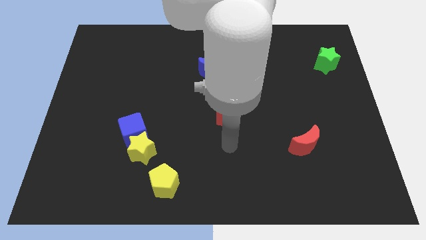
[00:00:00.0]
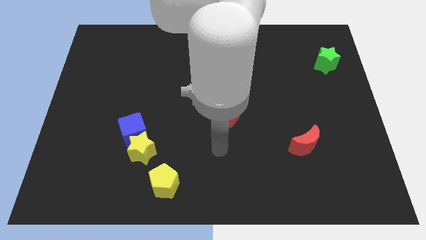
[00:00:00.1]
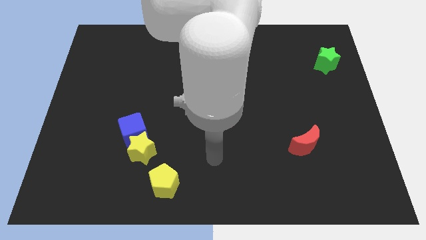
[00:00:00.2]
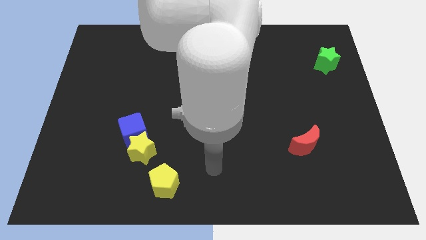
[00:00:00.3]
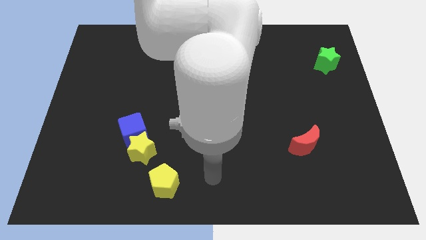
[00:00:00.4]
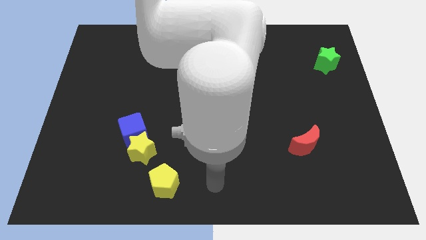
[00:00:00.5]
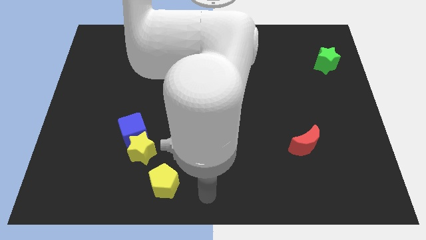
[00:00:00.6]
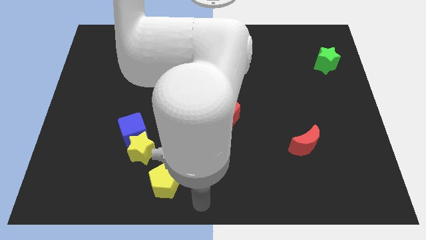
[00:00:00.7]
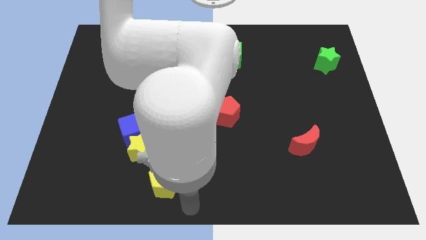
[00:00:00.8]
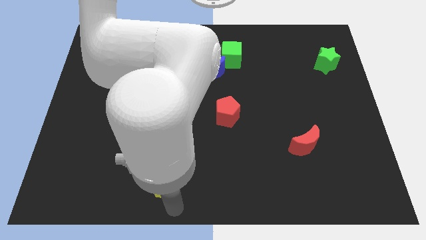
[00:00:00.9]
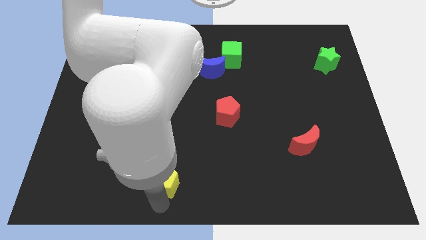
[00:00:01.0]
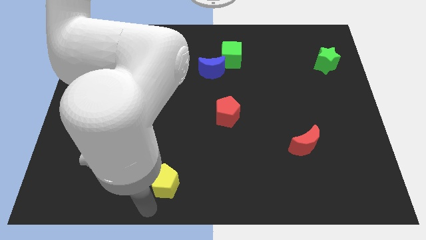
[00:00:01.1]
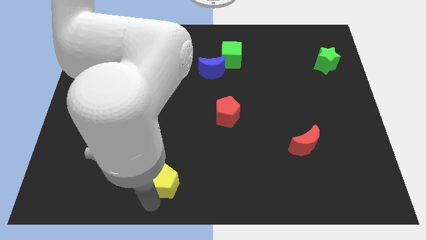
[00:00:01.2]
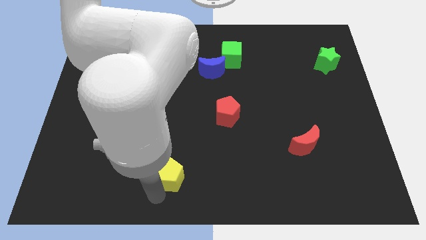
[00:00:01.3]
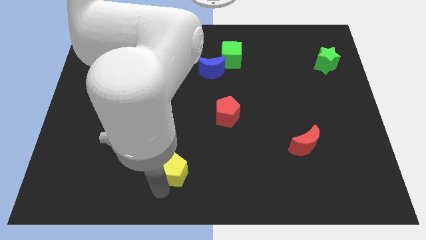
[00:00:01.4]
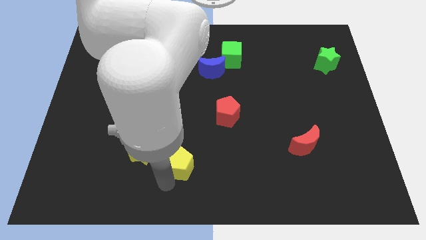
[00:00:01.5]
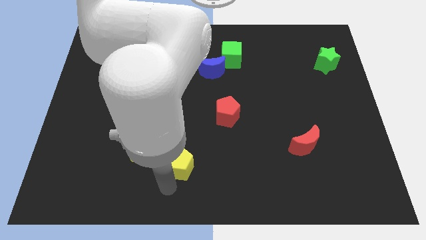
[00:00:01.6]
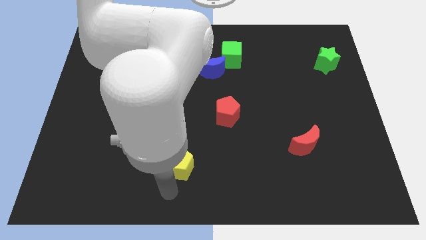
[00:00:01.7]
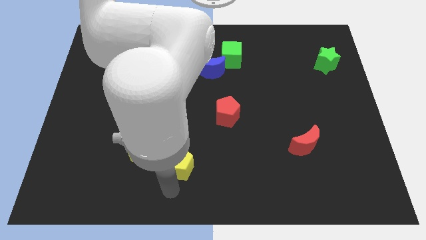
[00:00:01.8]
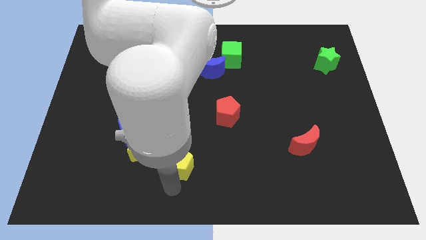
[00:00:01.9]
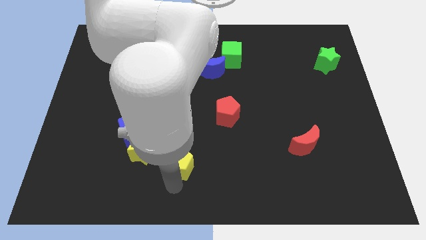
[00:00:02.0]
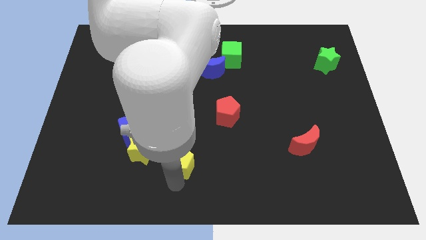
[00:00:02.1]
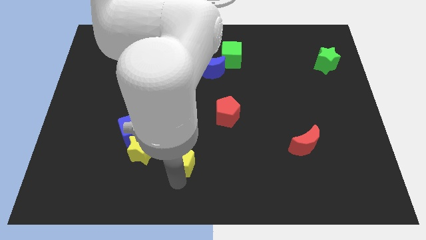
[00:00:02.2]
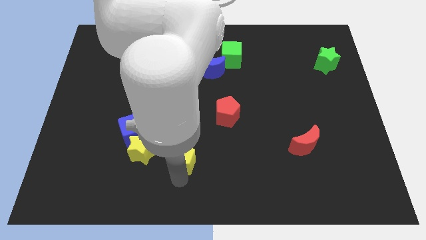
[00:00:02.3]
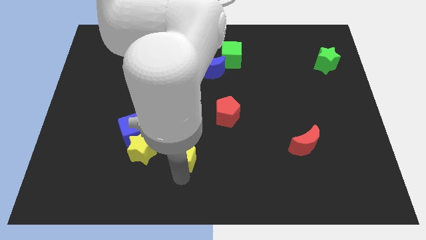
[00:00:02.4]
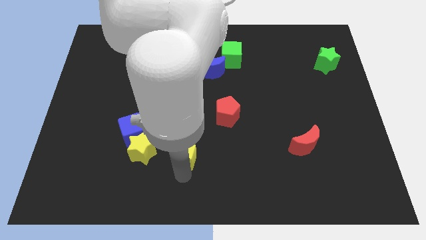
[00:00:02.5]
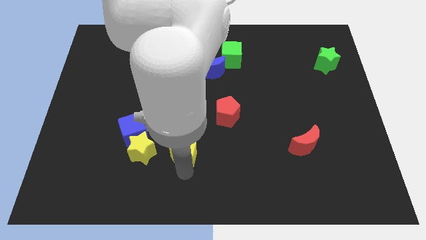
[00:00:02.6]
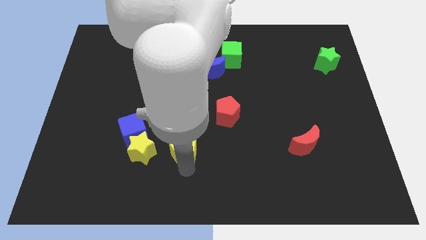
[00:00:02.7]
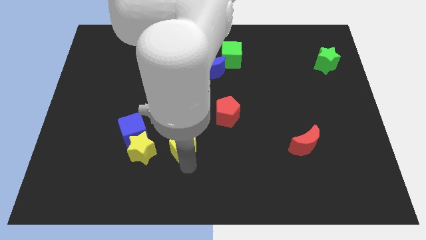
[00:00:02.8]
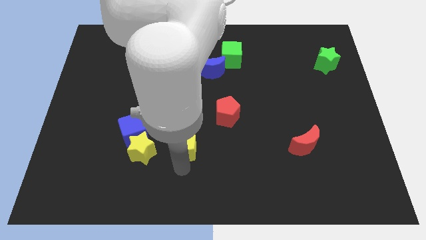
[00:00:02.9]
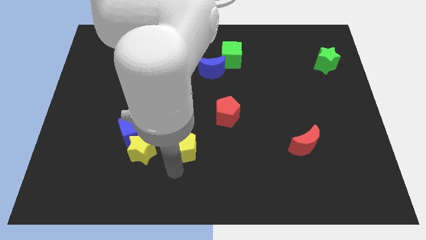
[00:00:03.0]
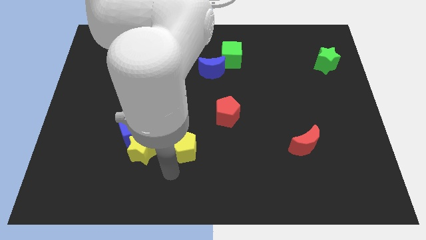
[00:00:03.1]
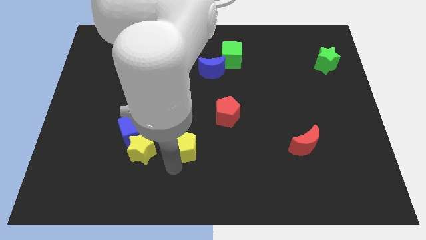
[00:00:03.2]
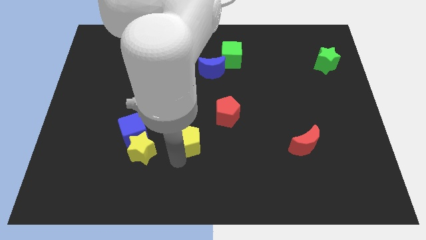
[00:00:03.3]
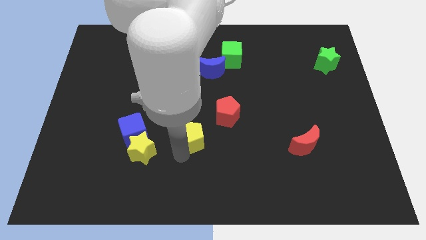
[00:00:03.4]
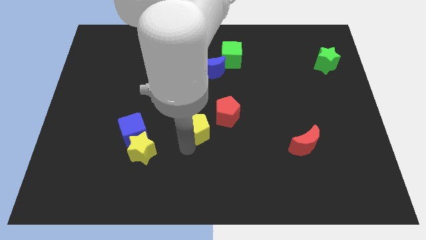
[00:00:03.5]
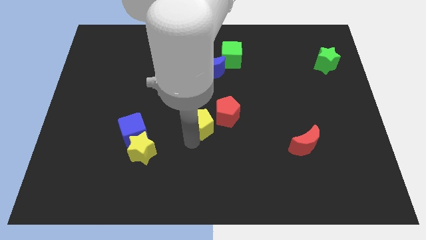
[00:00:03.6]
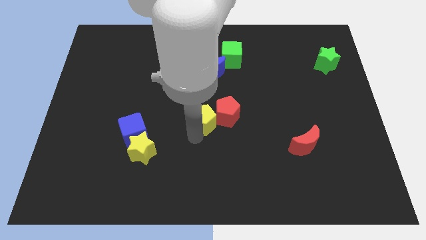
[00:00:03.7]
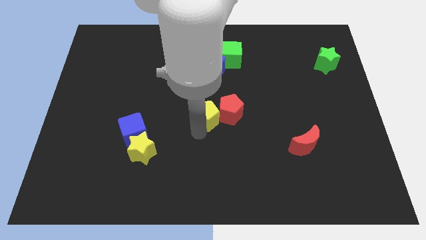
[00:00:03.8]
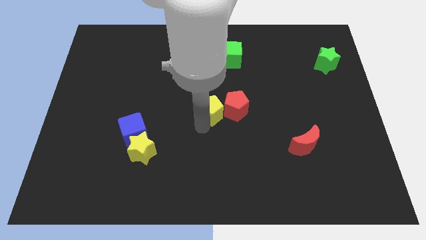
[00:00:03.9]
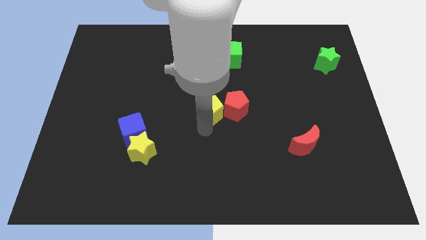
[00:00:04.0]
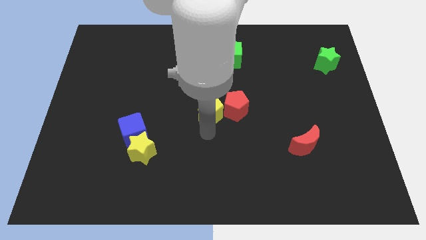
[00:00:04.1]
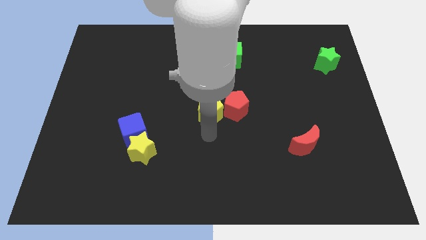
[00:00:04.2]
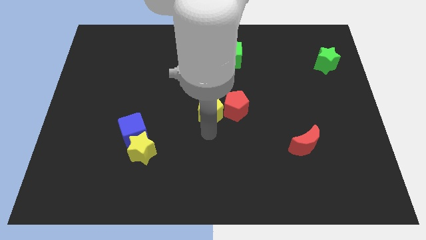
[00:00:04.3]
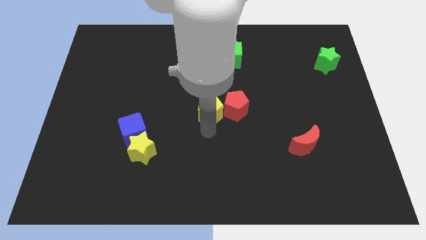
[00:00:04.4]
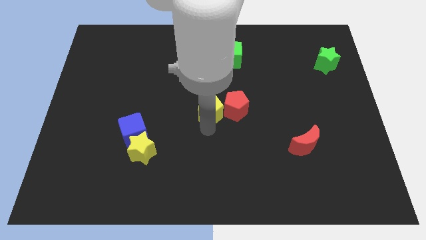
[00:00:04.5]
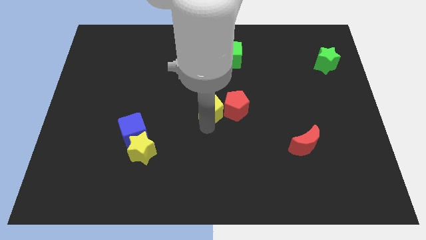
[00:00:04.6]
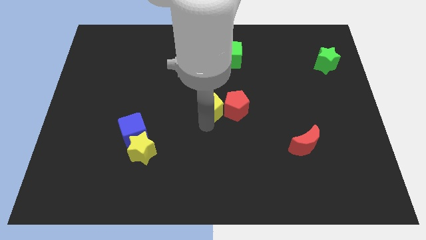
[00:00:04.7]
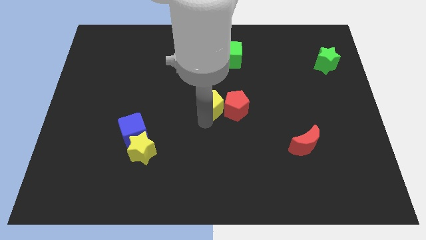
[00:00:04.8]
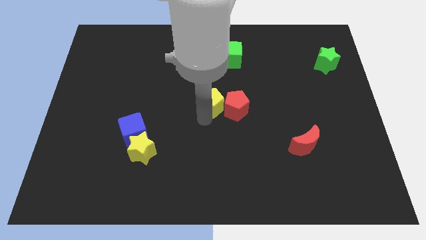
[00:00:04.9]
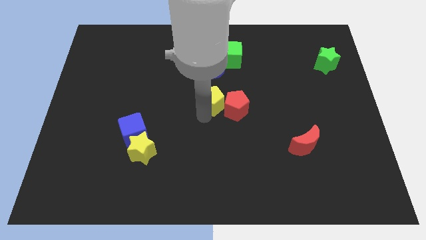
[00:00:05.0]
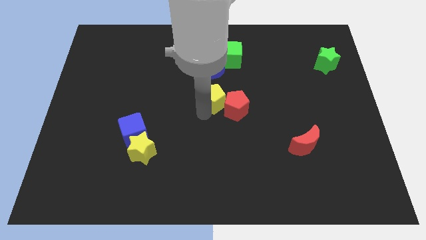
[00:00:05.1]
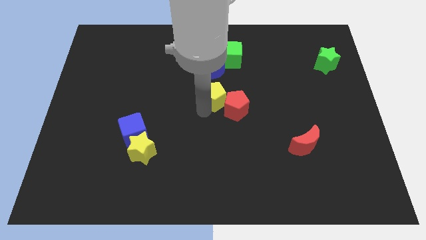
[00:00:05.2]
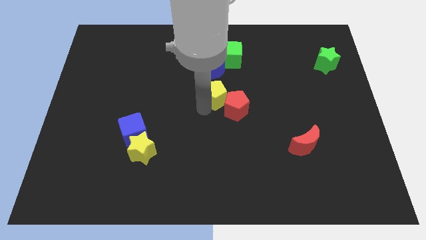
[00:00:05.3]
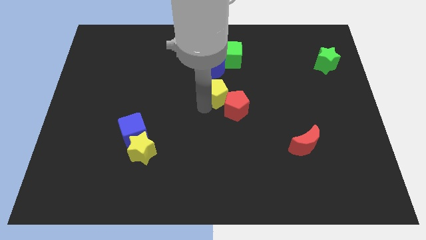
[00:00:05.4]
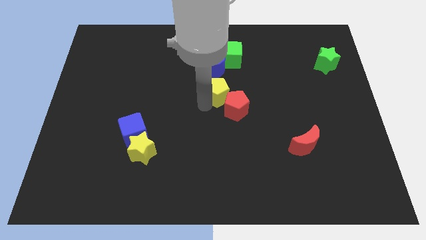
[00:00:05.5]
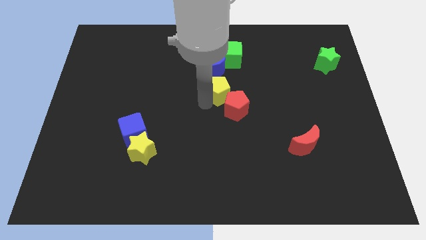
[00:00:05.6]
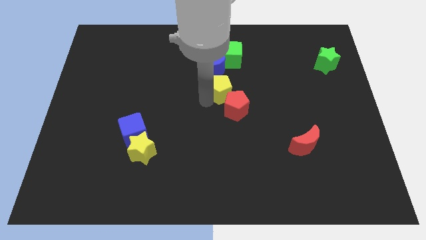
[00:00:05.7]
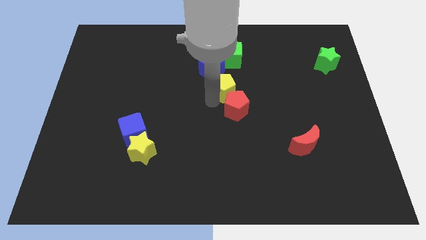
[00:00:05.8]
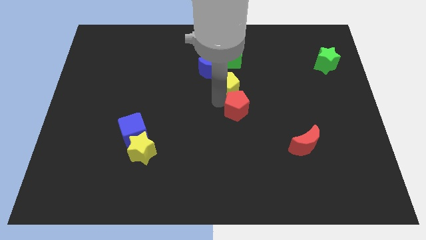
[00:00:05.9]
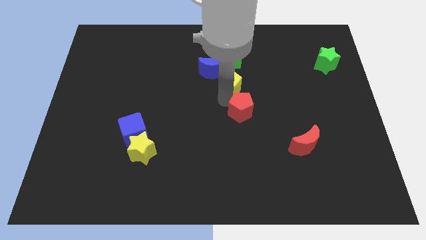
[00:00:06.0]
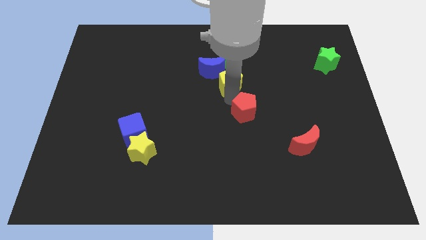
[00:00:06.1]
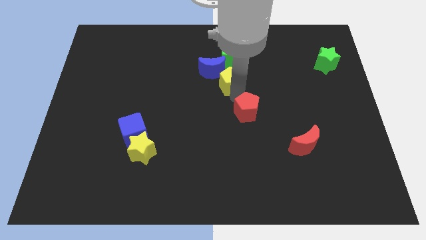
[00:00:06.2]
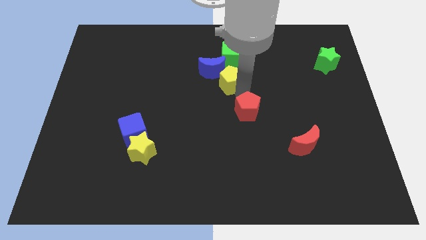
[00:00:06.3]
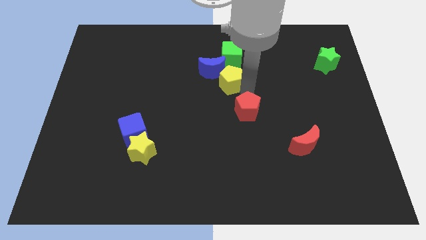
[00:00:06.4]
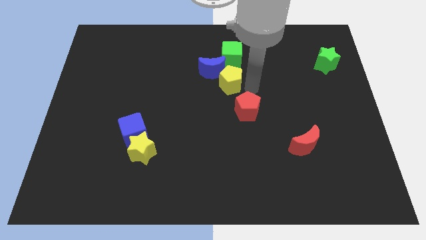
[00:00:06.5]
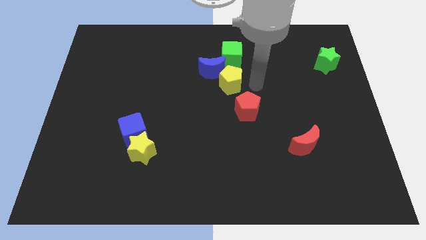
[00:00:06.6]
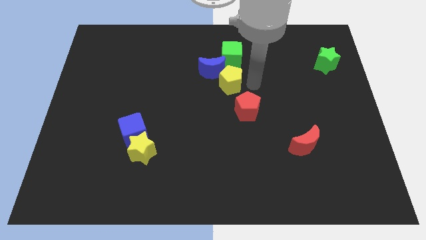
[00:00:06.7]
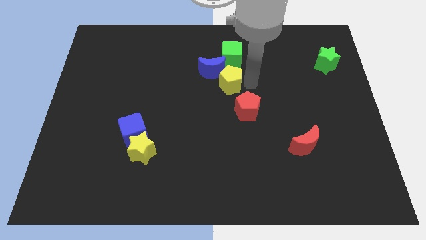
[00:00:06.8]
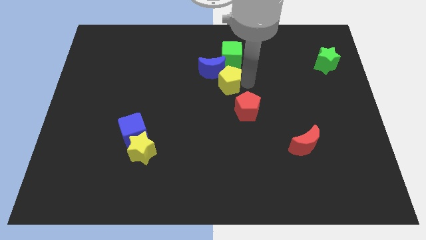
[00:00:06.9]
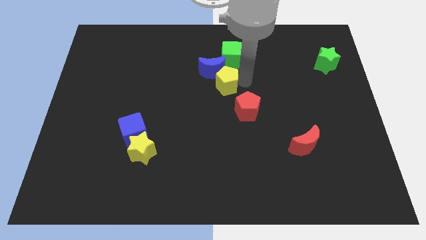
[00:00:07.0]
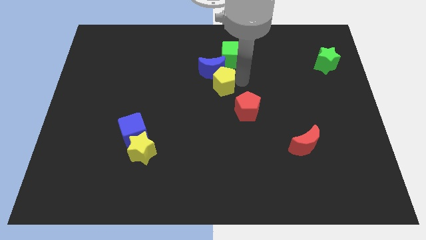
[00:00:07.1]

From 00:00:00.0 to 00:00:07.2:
put the yellow pentagon to the bottom left side of the green cube
